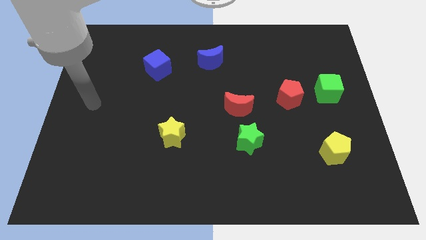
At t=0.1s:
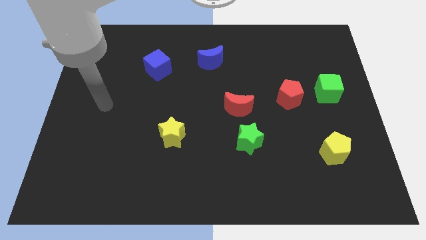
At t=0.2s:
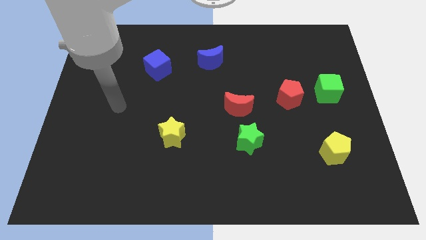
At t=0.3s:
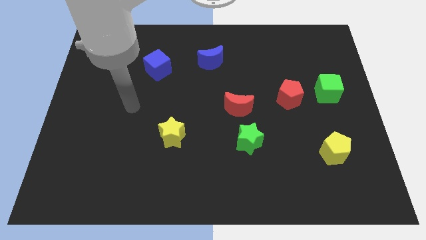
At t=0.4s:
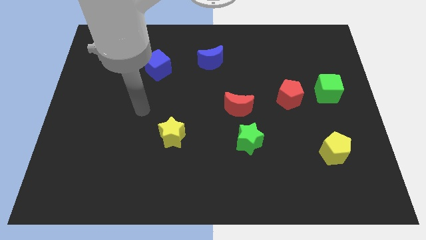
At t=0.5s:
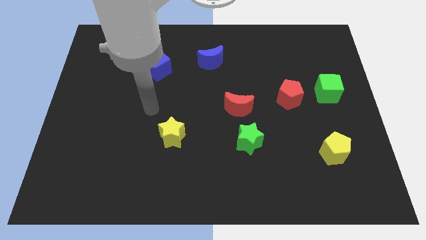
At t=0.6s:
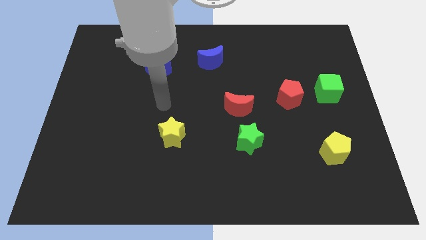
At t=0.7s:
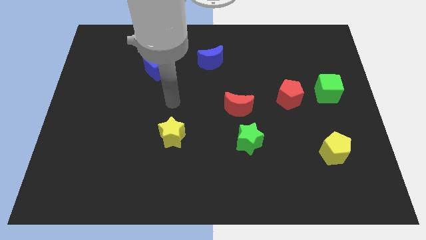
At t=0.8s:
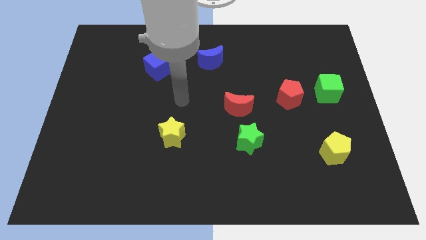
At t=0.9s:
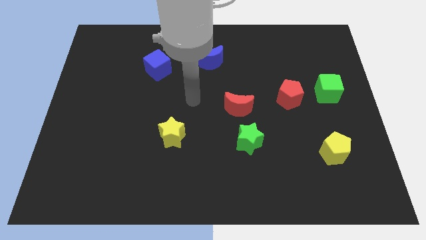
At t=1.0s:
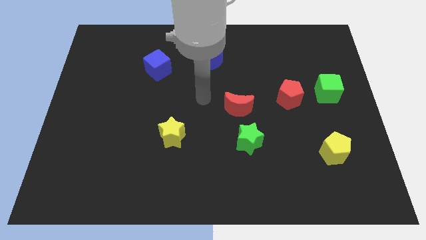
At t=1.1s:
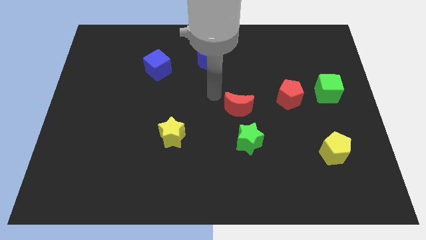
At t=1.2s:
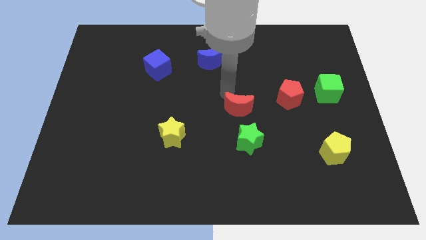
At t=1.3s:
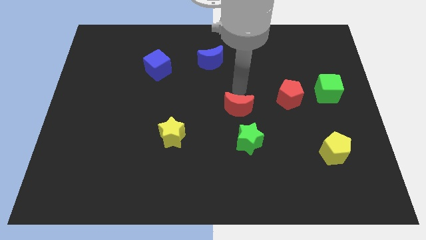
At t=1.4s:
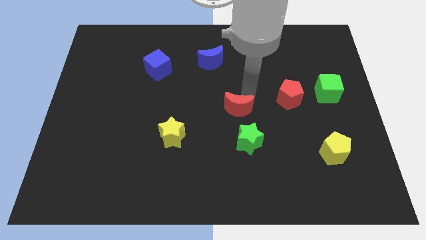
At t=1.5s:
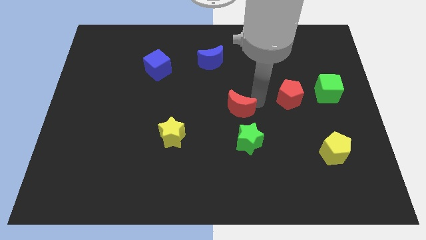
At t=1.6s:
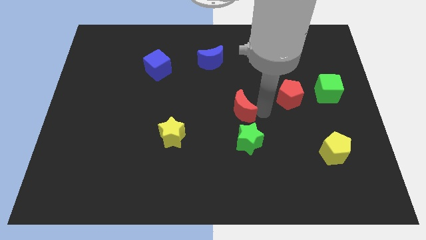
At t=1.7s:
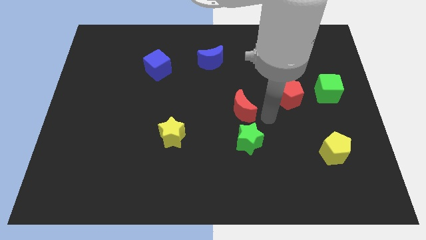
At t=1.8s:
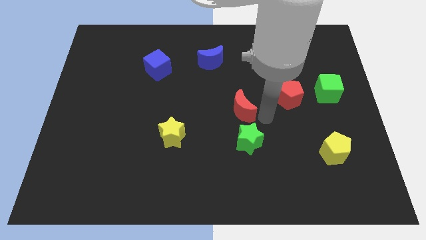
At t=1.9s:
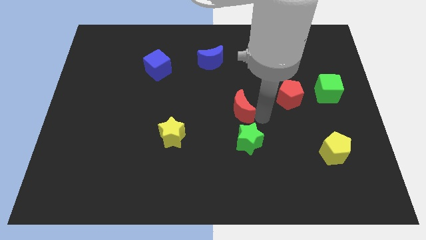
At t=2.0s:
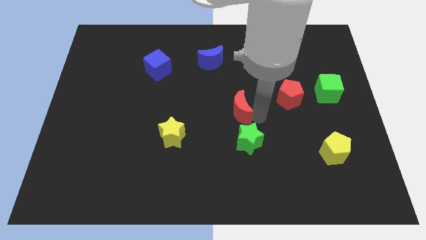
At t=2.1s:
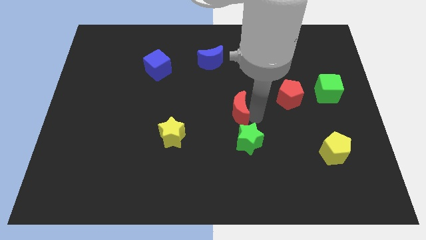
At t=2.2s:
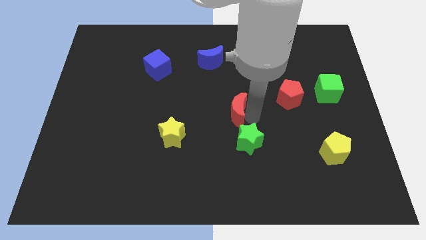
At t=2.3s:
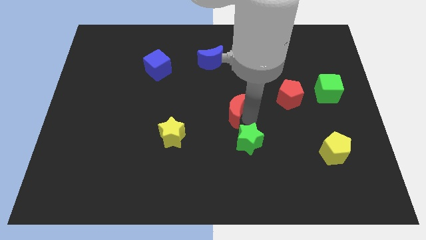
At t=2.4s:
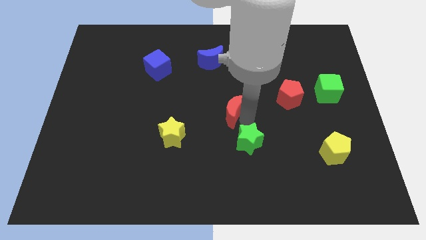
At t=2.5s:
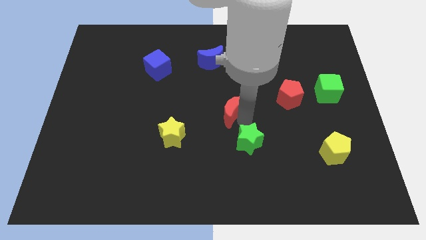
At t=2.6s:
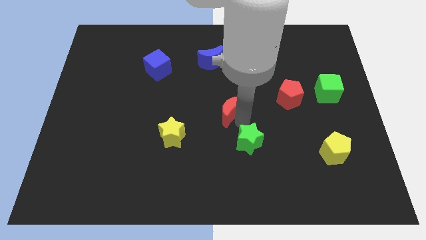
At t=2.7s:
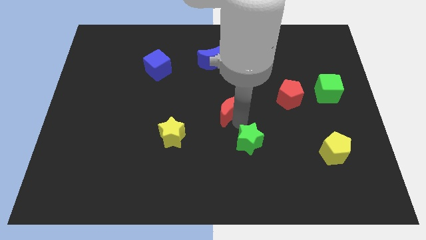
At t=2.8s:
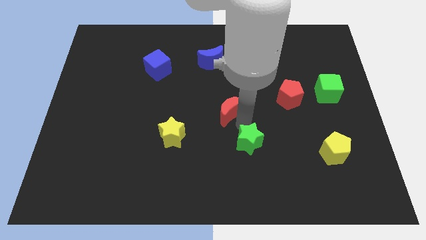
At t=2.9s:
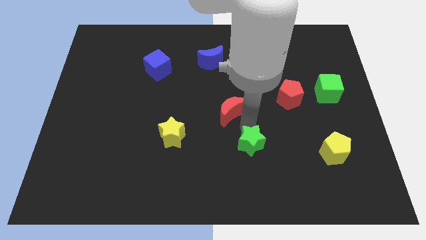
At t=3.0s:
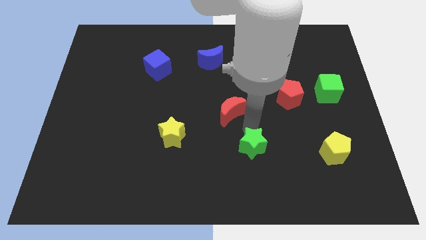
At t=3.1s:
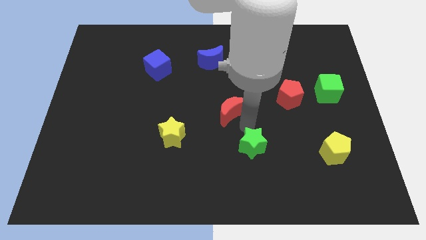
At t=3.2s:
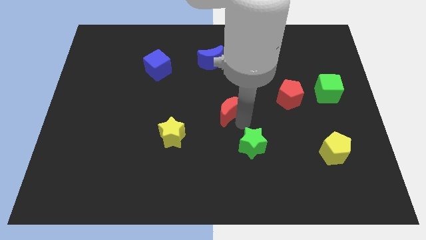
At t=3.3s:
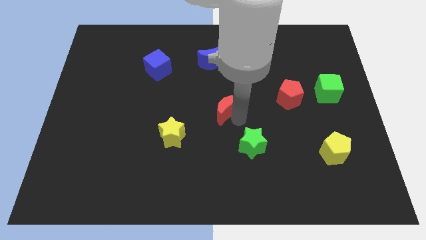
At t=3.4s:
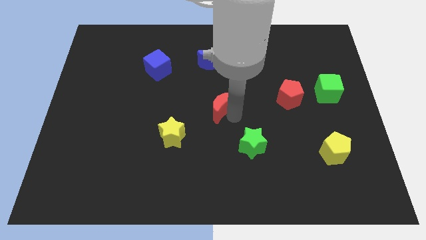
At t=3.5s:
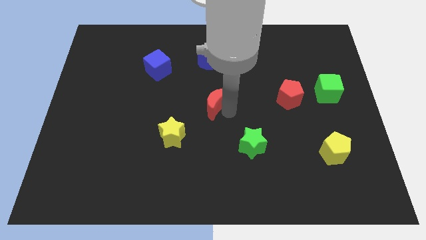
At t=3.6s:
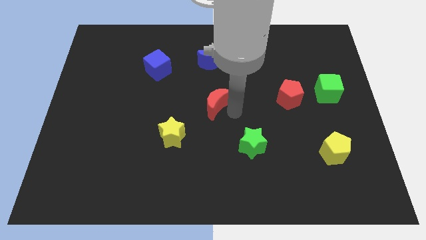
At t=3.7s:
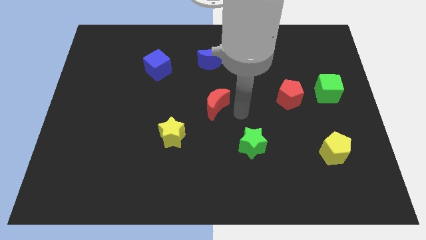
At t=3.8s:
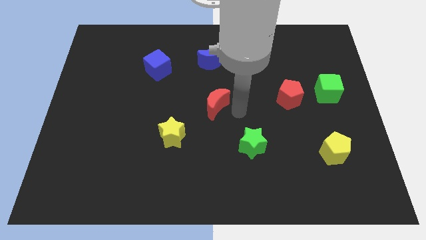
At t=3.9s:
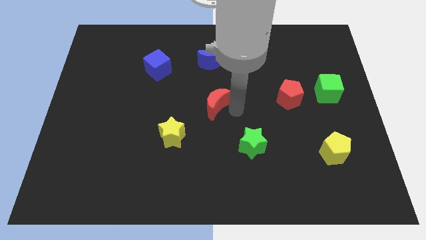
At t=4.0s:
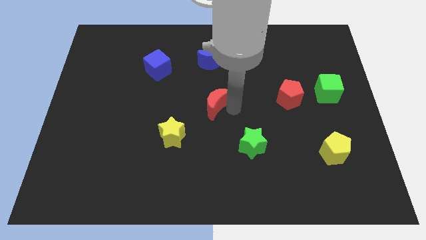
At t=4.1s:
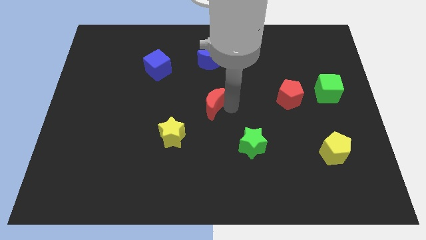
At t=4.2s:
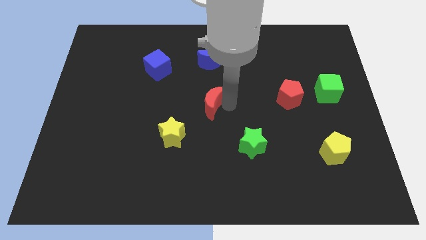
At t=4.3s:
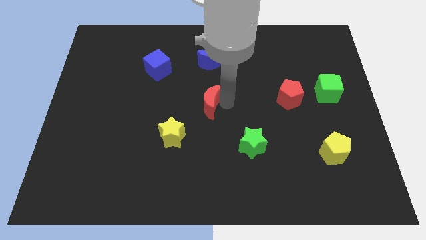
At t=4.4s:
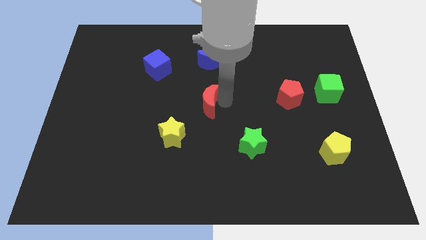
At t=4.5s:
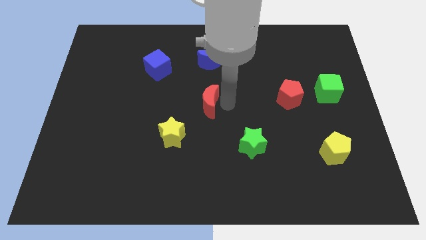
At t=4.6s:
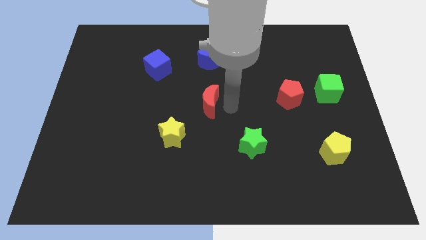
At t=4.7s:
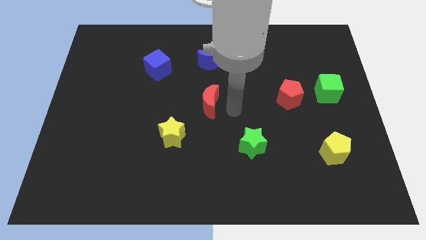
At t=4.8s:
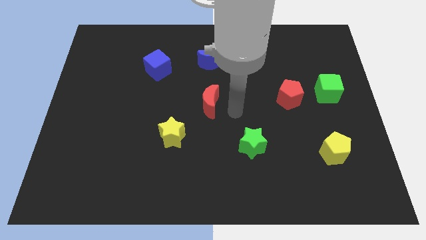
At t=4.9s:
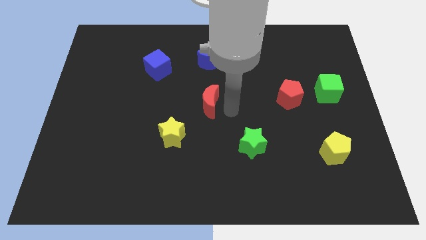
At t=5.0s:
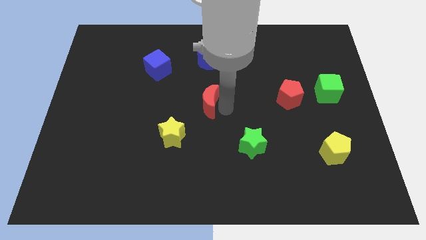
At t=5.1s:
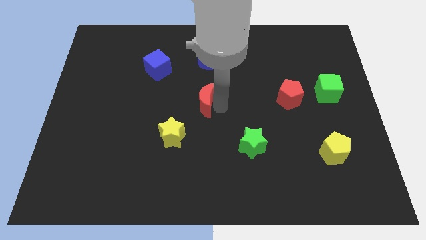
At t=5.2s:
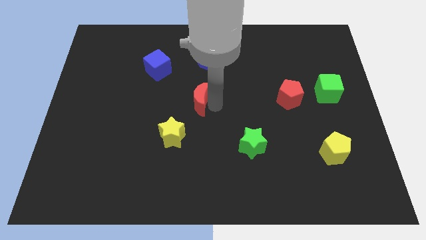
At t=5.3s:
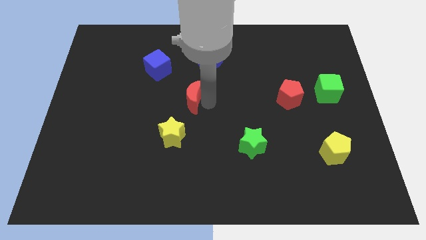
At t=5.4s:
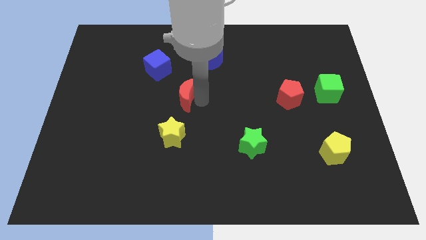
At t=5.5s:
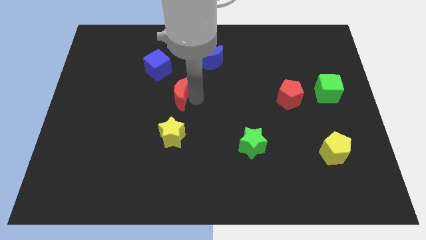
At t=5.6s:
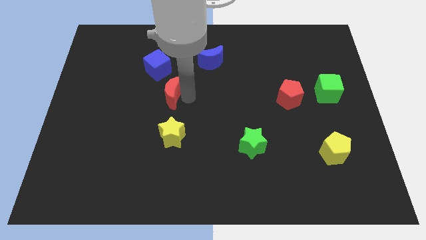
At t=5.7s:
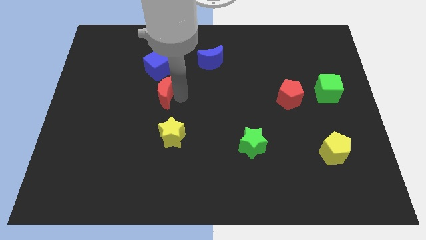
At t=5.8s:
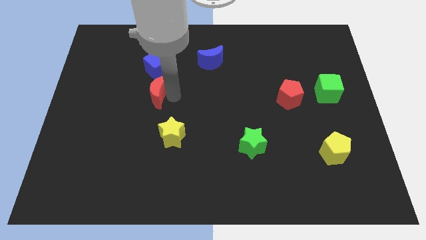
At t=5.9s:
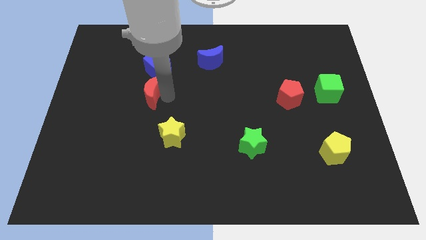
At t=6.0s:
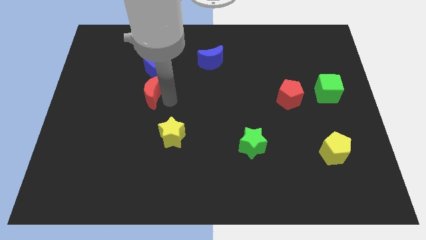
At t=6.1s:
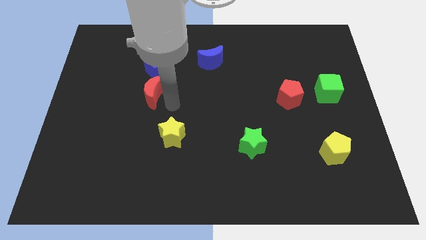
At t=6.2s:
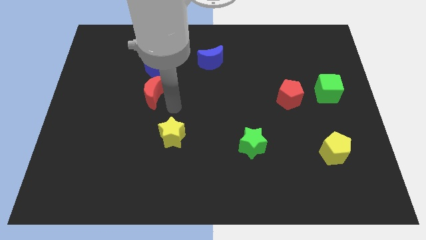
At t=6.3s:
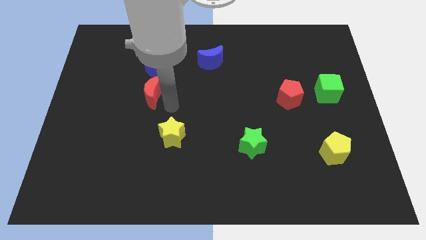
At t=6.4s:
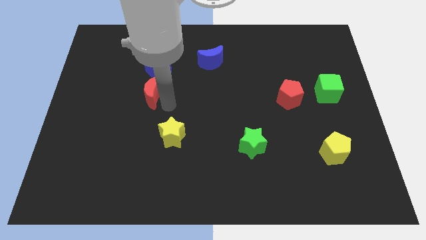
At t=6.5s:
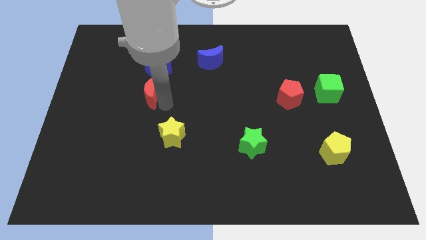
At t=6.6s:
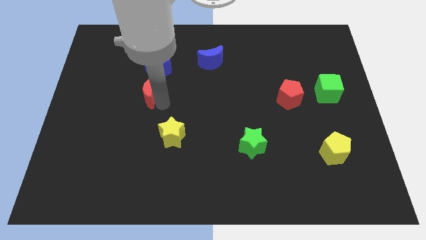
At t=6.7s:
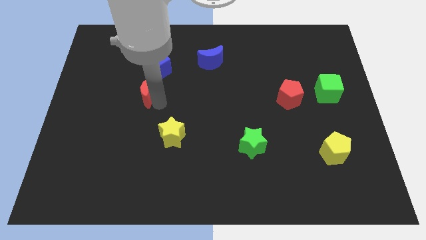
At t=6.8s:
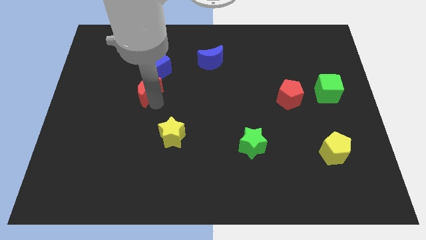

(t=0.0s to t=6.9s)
move the red moon to the bottom left of the blue cube

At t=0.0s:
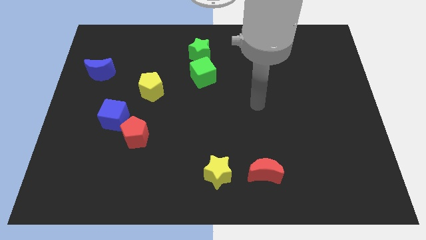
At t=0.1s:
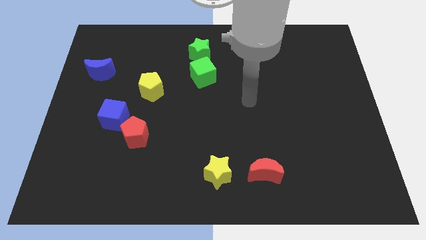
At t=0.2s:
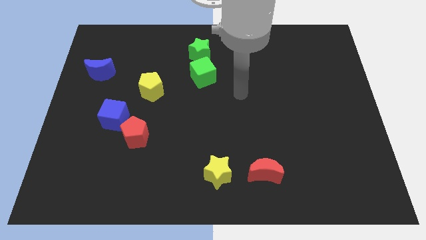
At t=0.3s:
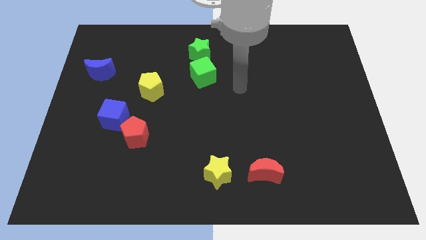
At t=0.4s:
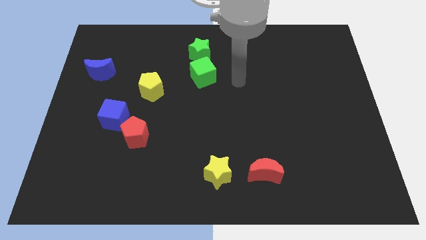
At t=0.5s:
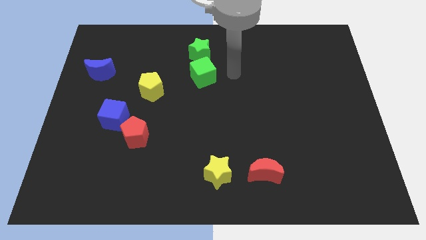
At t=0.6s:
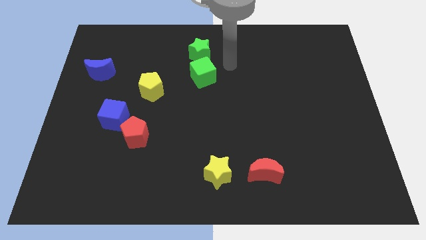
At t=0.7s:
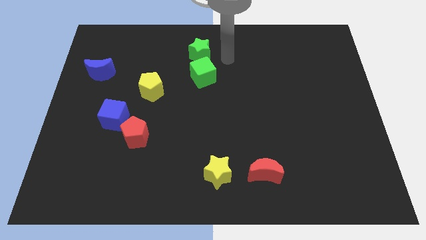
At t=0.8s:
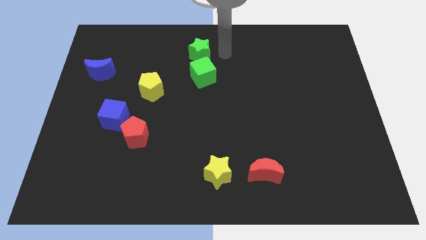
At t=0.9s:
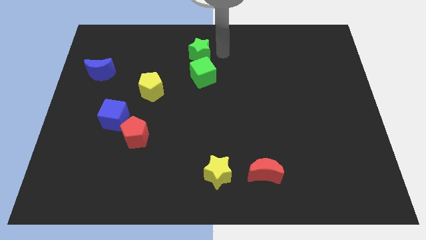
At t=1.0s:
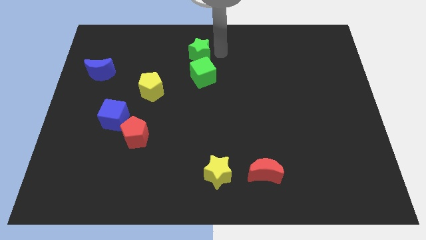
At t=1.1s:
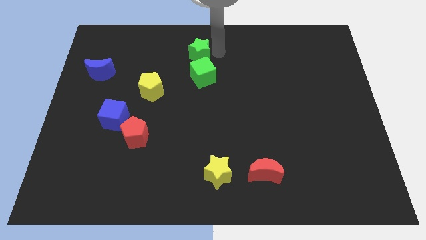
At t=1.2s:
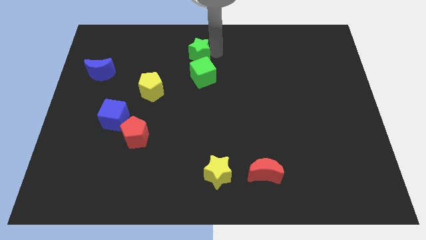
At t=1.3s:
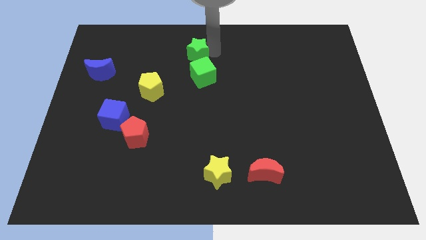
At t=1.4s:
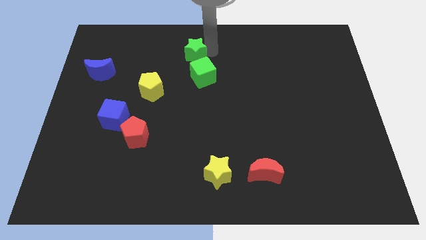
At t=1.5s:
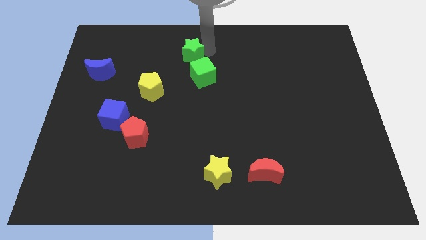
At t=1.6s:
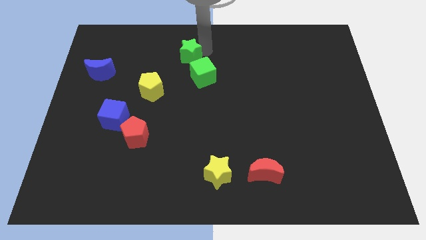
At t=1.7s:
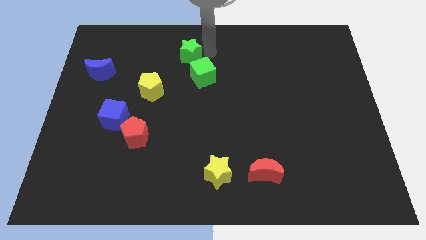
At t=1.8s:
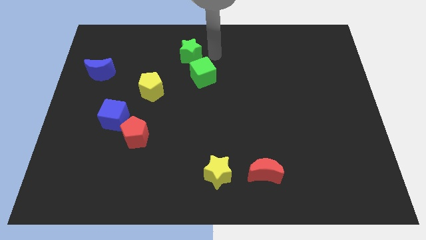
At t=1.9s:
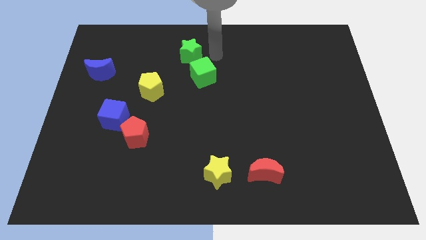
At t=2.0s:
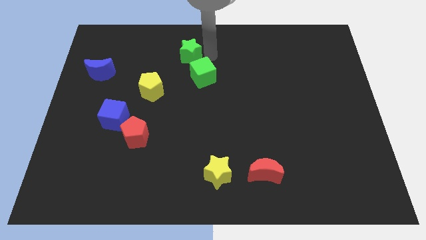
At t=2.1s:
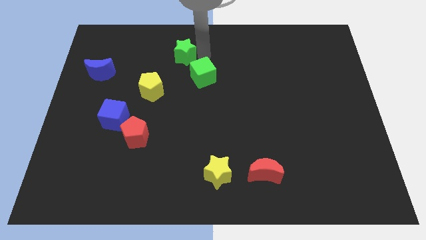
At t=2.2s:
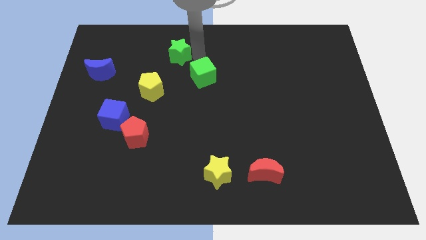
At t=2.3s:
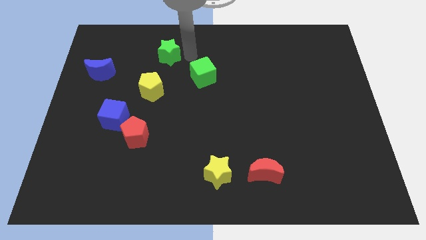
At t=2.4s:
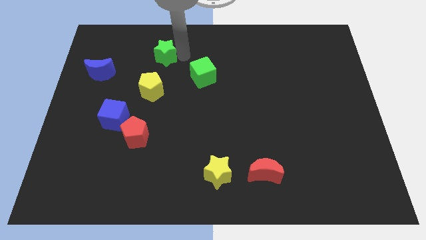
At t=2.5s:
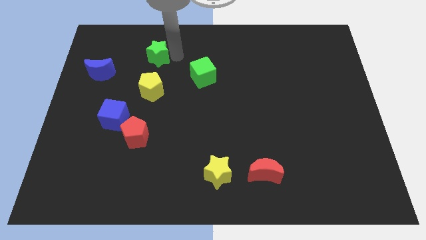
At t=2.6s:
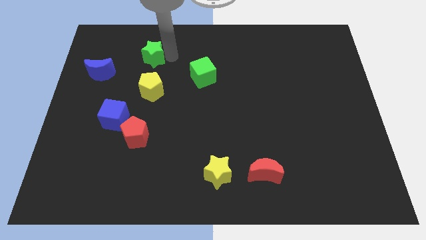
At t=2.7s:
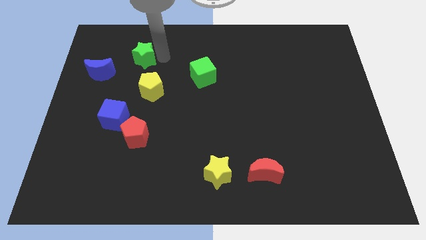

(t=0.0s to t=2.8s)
move the green star to the top right of the blue moon
